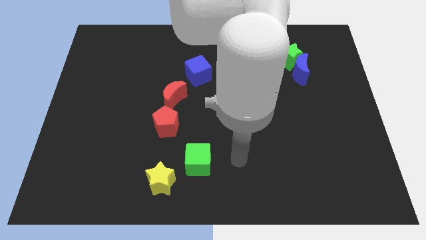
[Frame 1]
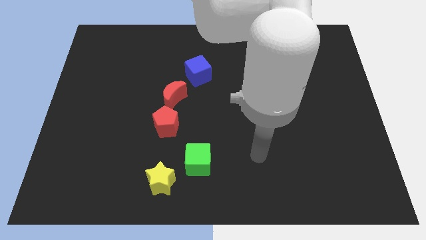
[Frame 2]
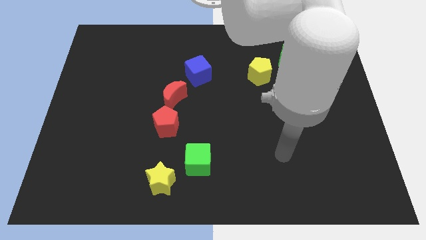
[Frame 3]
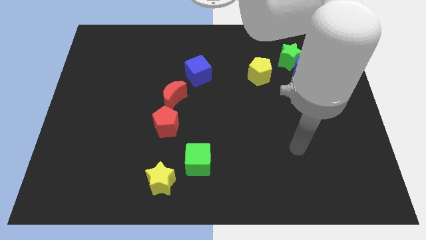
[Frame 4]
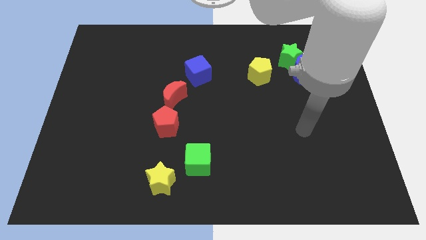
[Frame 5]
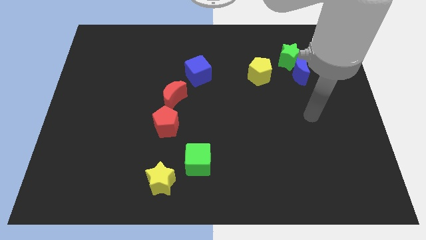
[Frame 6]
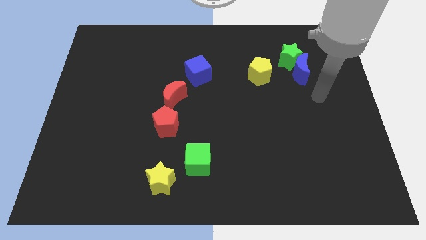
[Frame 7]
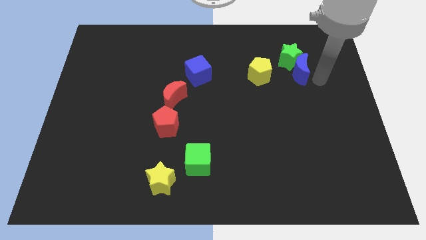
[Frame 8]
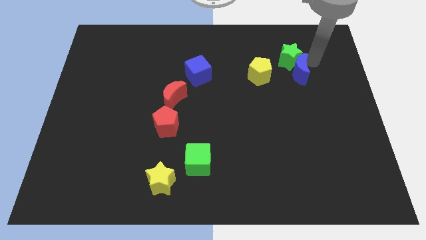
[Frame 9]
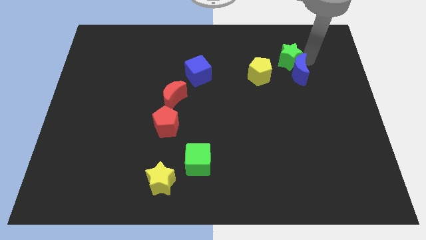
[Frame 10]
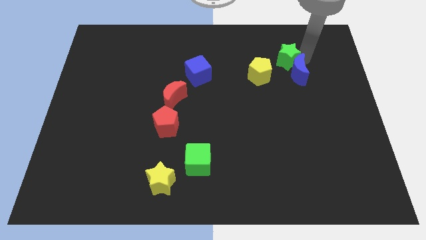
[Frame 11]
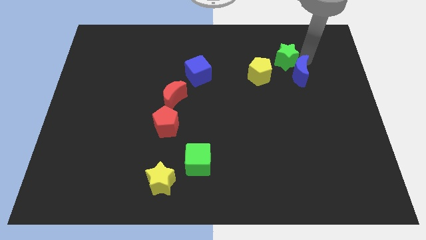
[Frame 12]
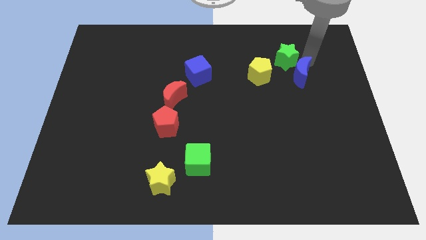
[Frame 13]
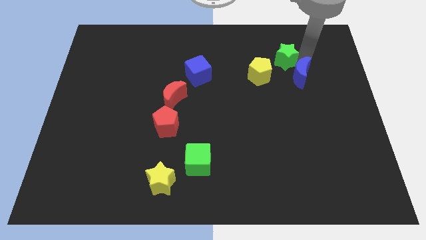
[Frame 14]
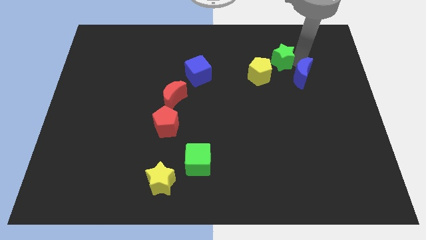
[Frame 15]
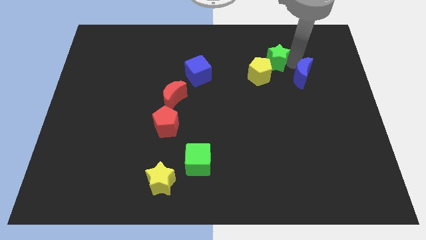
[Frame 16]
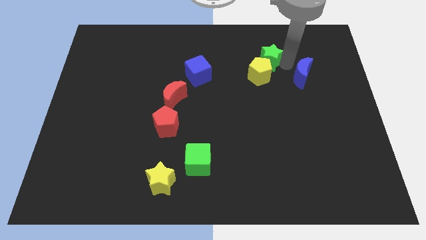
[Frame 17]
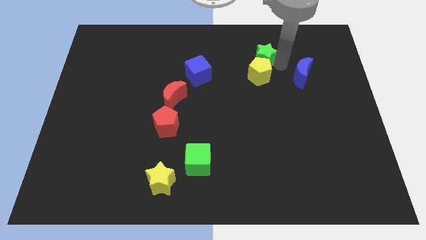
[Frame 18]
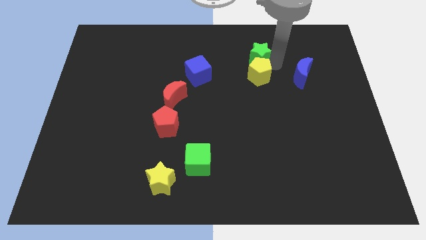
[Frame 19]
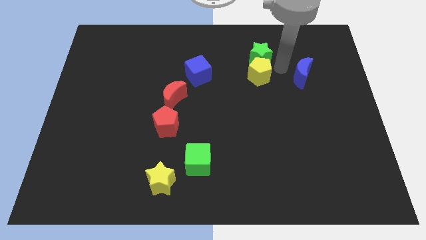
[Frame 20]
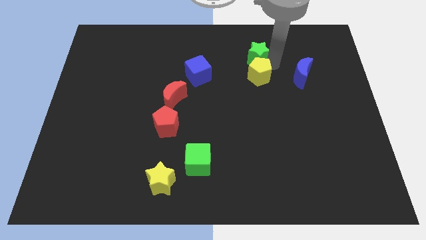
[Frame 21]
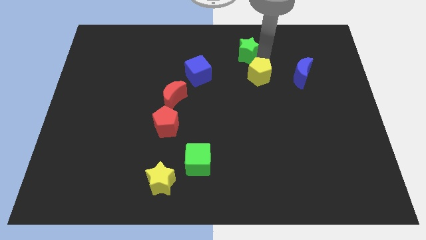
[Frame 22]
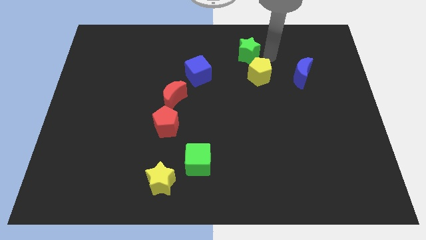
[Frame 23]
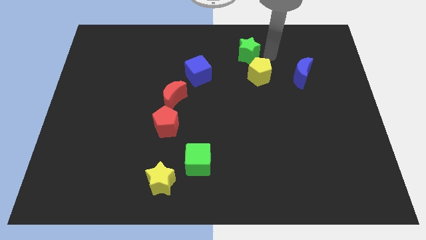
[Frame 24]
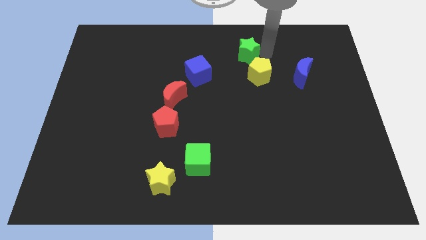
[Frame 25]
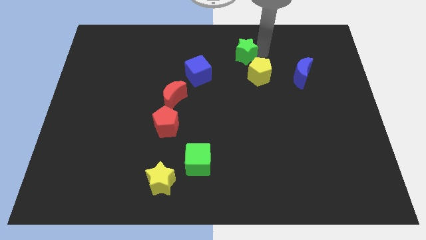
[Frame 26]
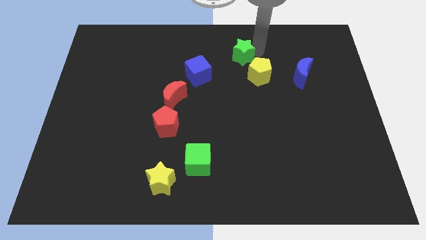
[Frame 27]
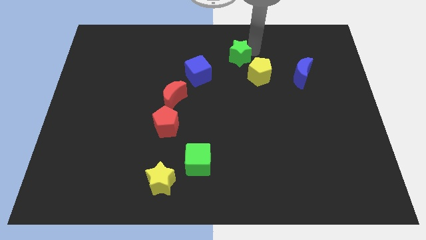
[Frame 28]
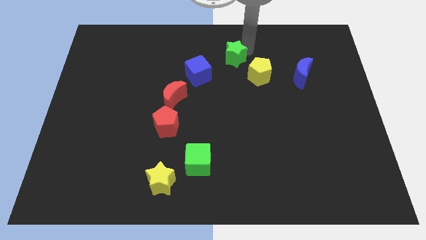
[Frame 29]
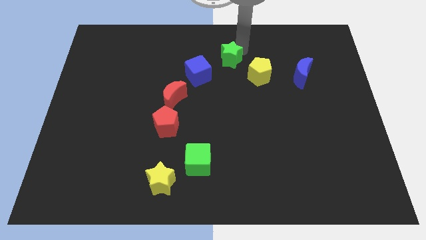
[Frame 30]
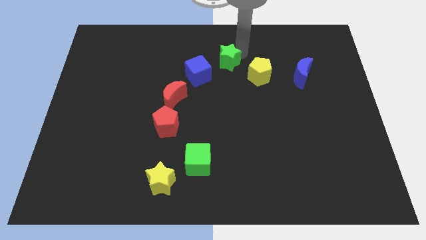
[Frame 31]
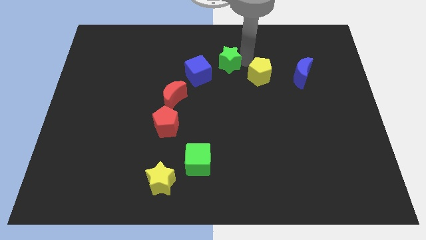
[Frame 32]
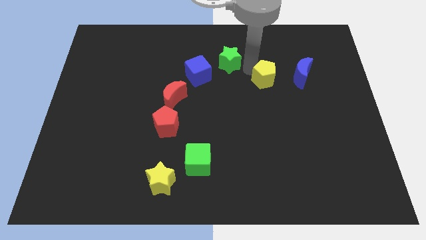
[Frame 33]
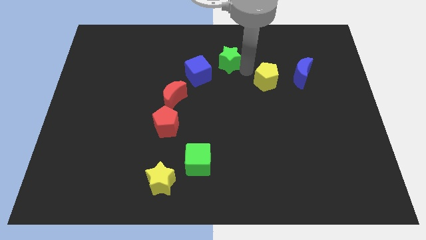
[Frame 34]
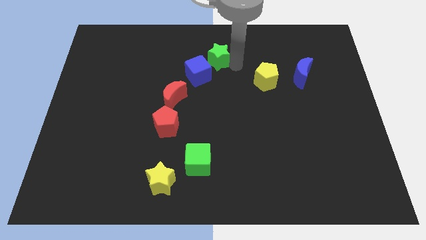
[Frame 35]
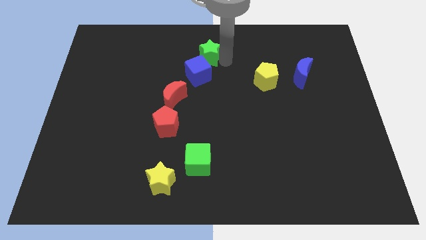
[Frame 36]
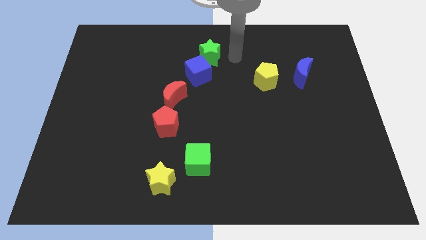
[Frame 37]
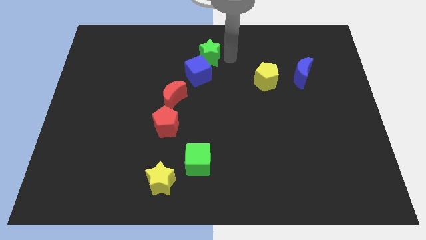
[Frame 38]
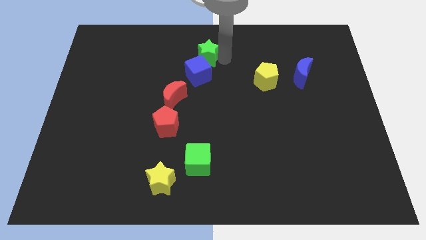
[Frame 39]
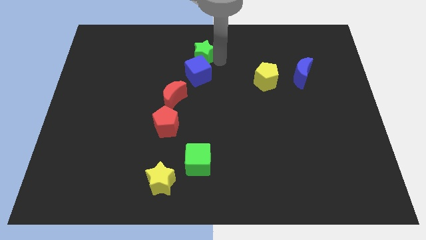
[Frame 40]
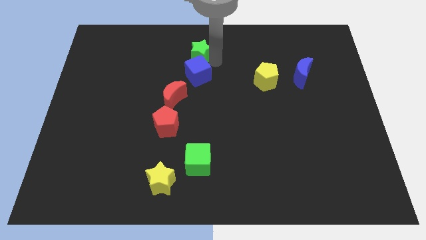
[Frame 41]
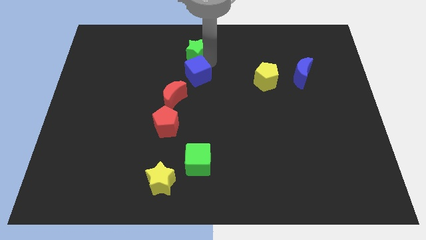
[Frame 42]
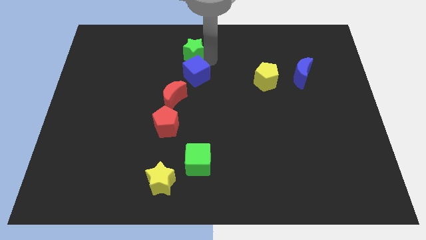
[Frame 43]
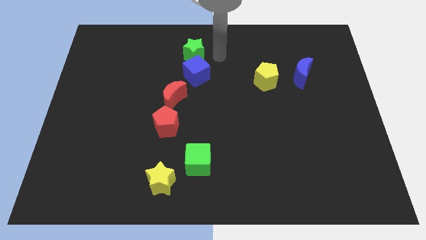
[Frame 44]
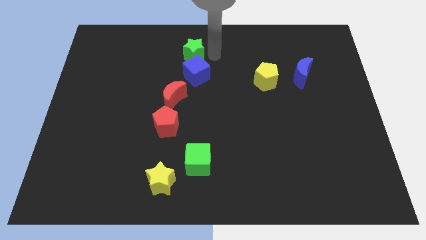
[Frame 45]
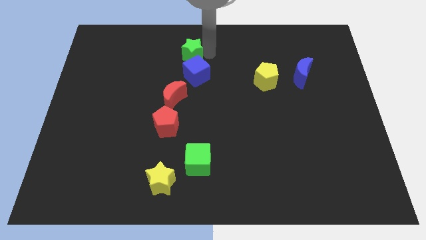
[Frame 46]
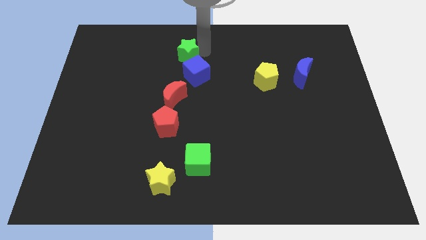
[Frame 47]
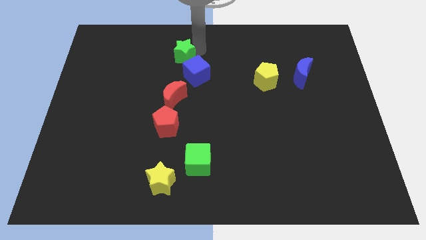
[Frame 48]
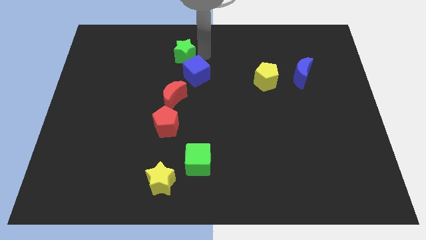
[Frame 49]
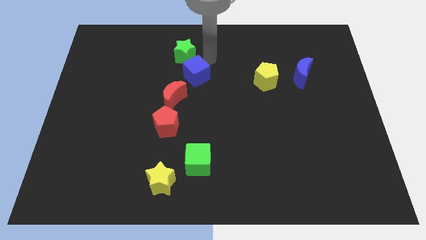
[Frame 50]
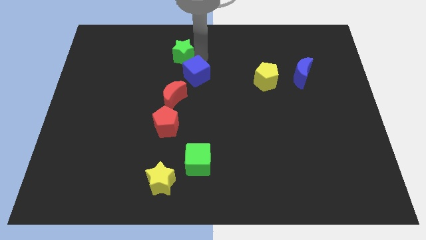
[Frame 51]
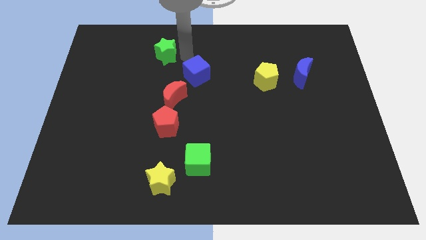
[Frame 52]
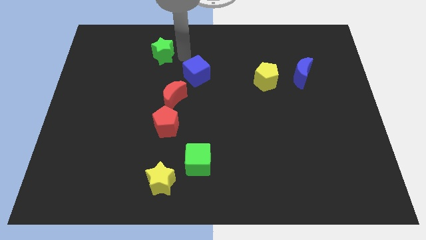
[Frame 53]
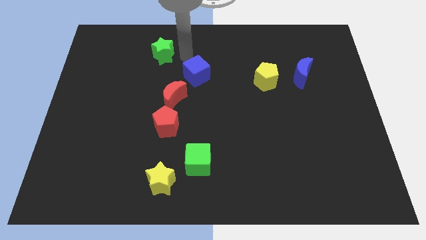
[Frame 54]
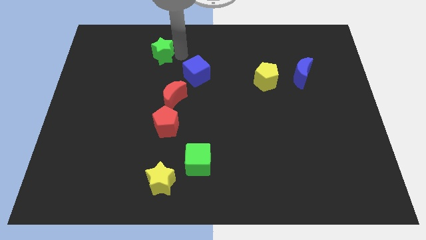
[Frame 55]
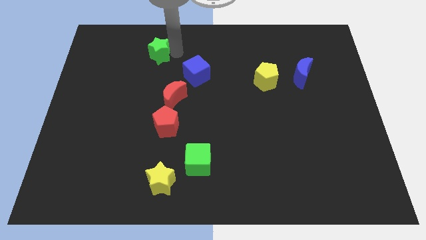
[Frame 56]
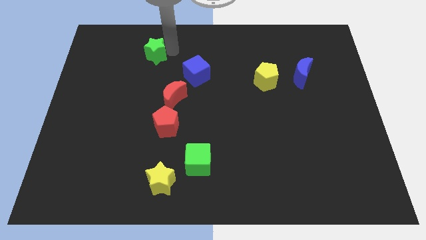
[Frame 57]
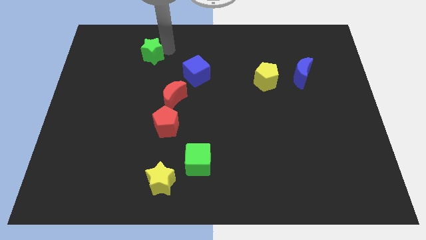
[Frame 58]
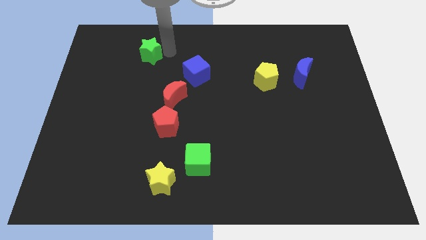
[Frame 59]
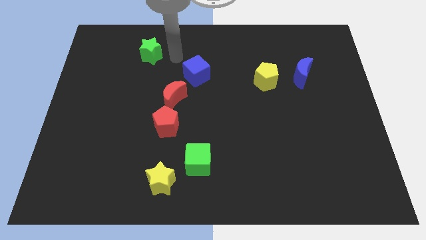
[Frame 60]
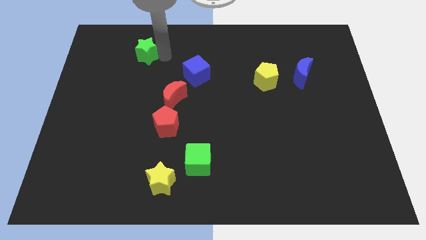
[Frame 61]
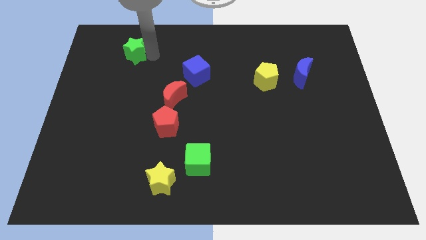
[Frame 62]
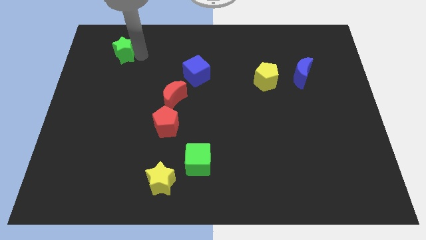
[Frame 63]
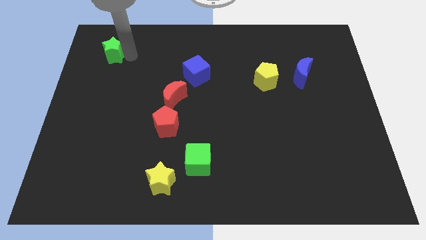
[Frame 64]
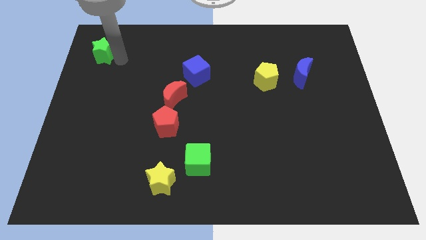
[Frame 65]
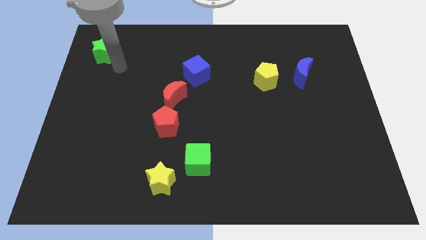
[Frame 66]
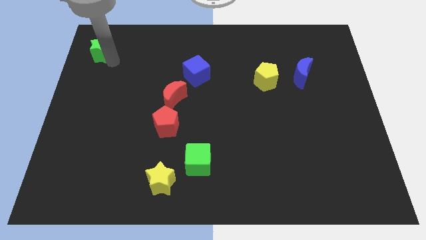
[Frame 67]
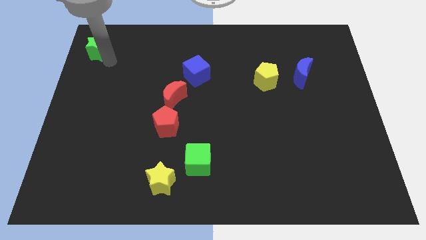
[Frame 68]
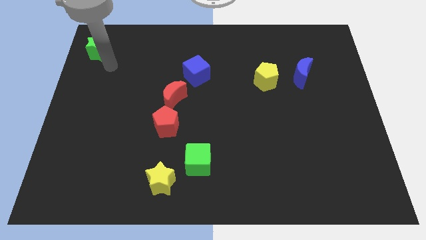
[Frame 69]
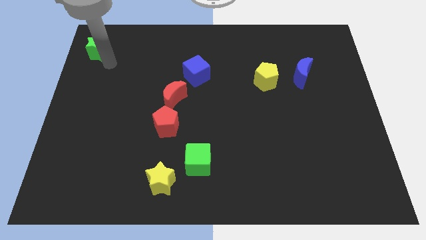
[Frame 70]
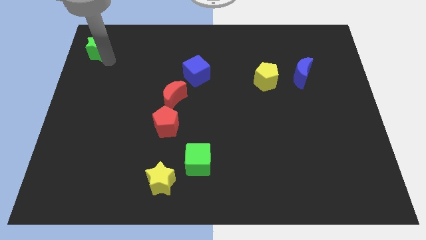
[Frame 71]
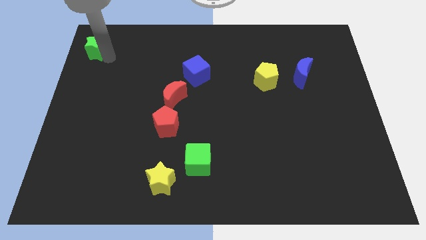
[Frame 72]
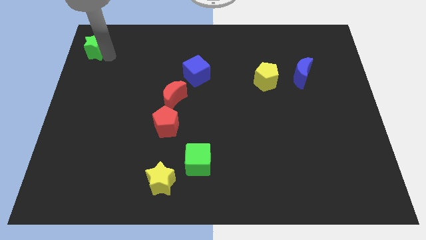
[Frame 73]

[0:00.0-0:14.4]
slide the green star to the top left
